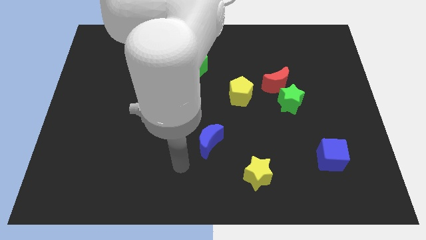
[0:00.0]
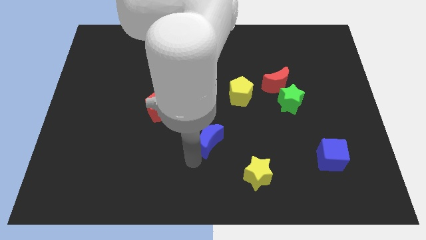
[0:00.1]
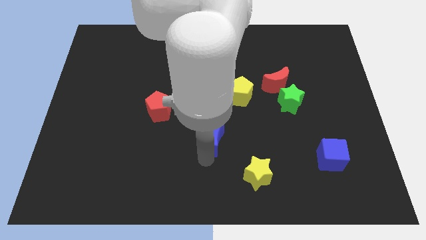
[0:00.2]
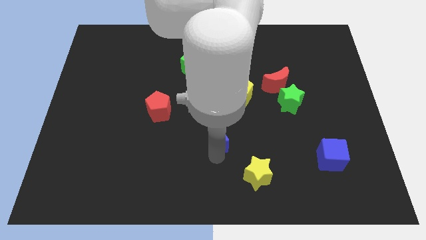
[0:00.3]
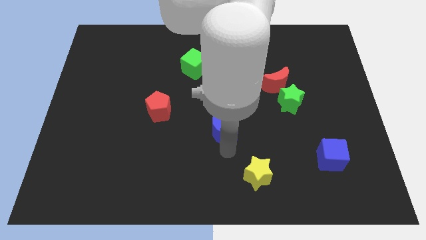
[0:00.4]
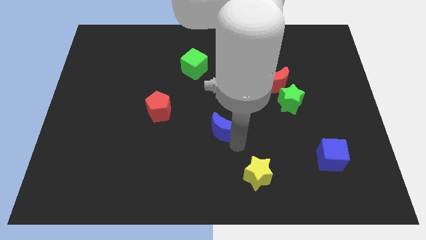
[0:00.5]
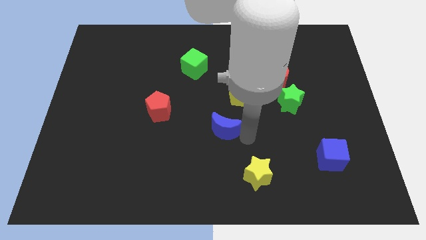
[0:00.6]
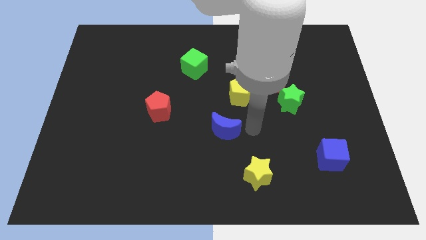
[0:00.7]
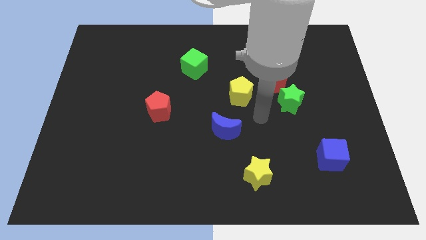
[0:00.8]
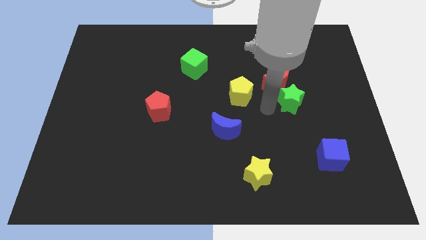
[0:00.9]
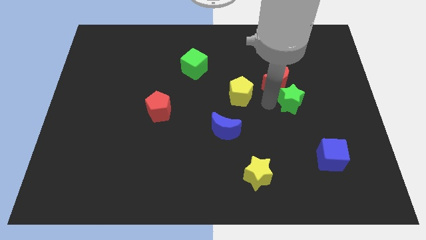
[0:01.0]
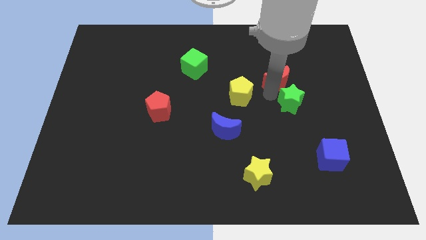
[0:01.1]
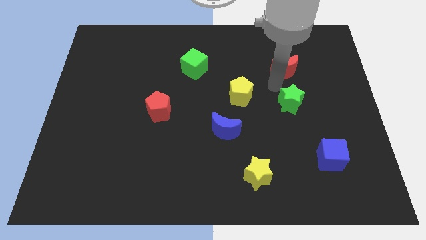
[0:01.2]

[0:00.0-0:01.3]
separate the green star from the red moon

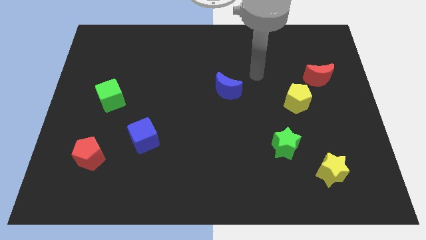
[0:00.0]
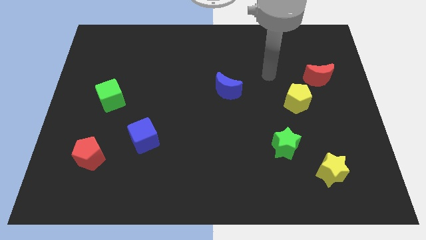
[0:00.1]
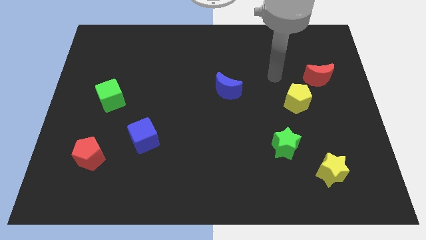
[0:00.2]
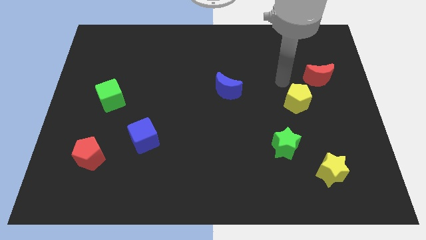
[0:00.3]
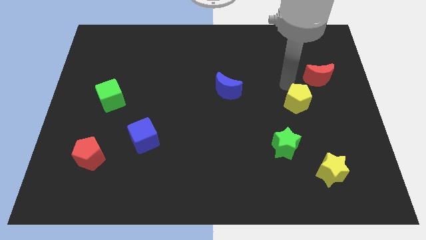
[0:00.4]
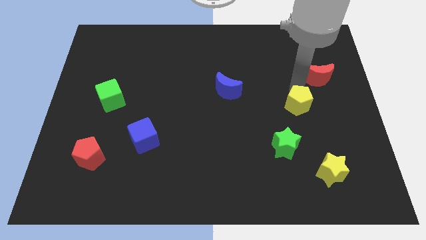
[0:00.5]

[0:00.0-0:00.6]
separate the red moon from the yellow pentagon

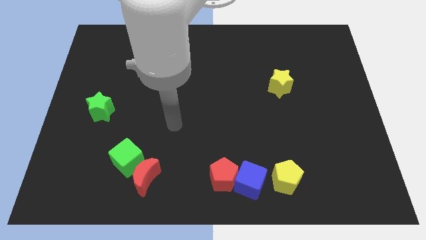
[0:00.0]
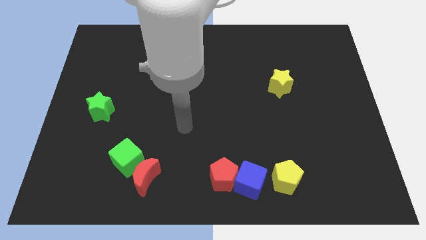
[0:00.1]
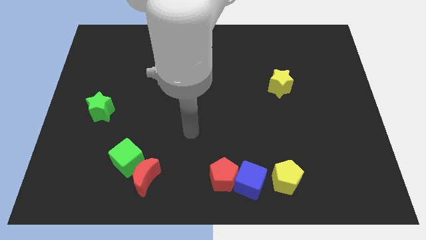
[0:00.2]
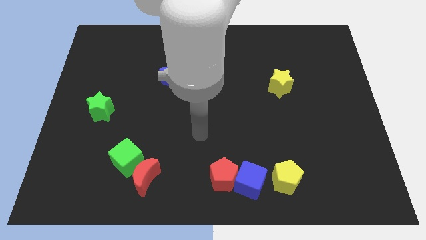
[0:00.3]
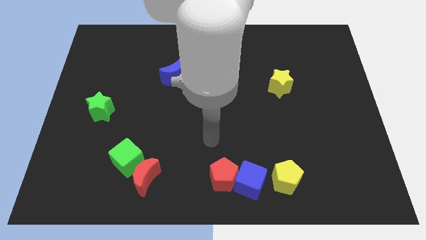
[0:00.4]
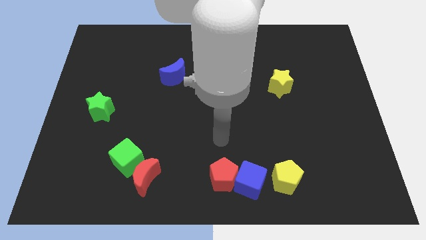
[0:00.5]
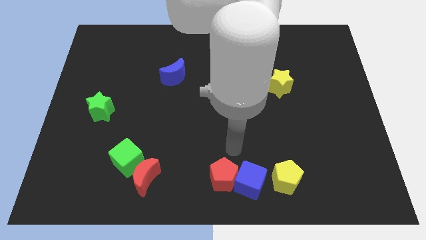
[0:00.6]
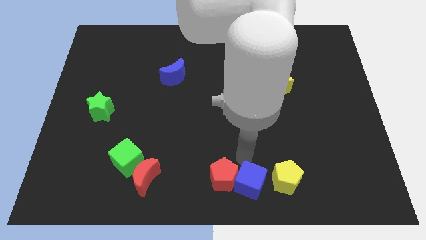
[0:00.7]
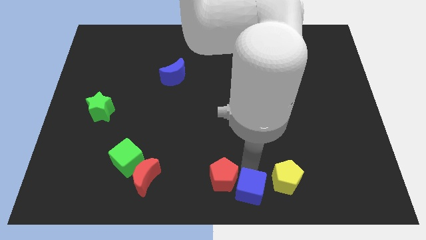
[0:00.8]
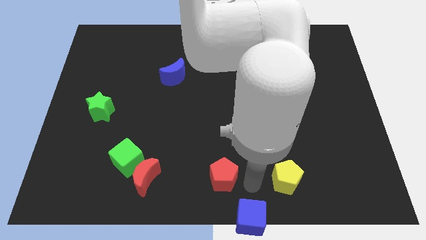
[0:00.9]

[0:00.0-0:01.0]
separate the red pentagon from the blue cube

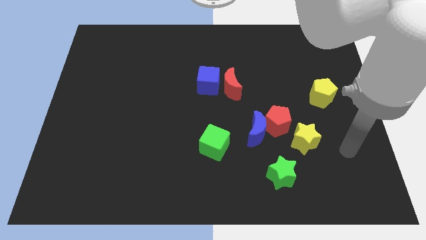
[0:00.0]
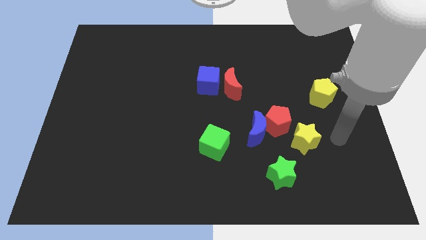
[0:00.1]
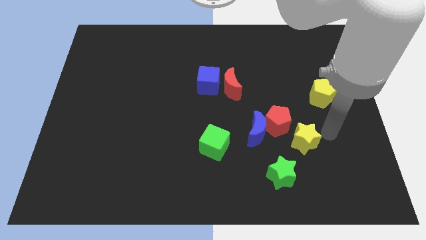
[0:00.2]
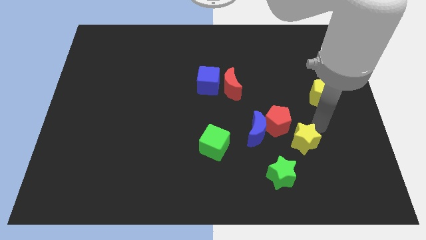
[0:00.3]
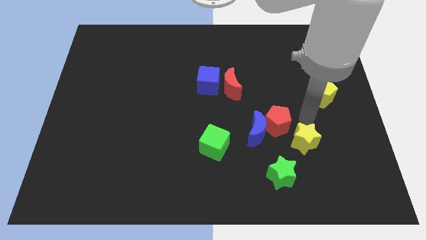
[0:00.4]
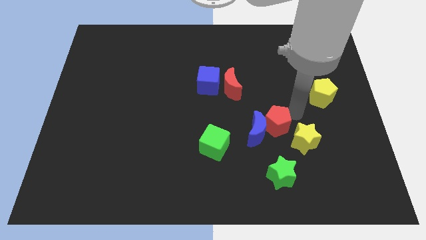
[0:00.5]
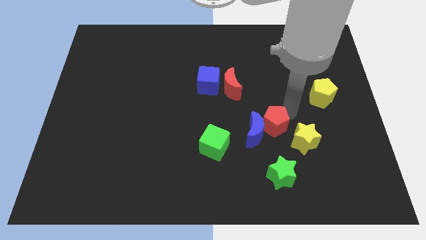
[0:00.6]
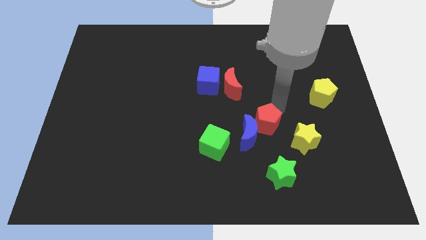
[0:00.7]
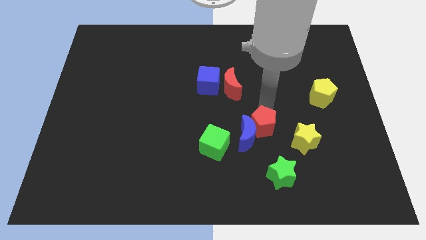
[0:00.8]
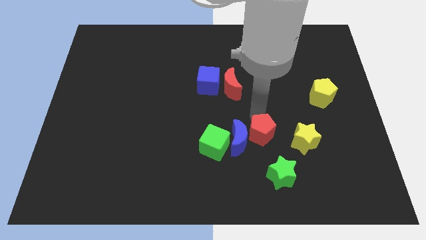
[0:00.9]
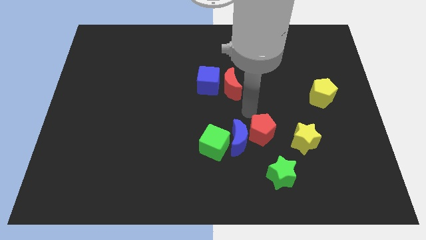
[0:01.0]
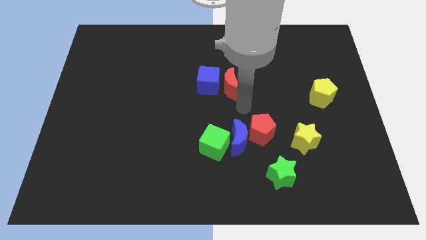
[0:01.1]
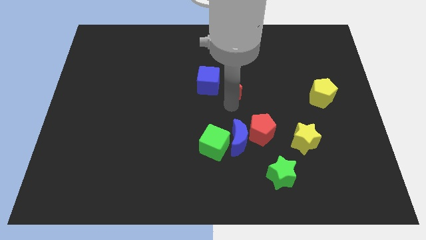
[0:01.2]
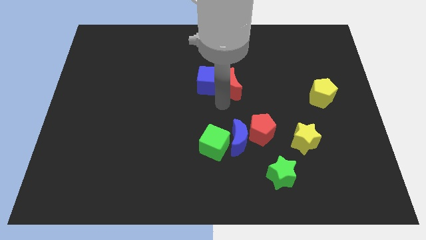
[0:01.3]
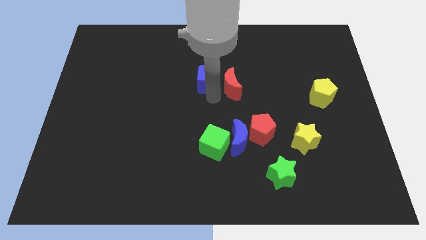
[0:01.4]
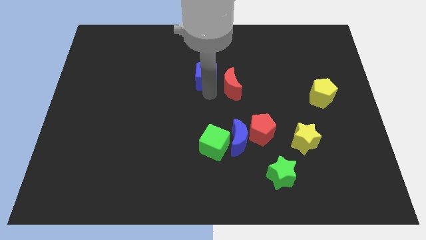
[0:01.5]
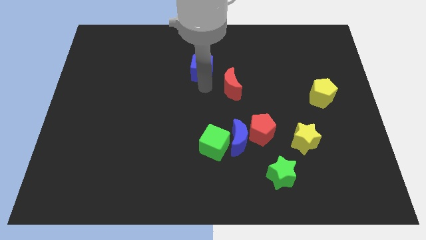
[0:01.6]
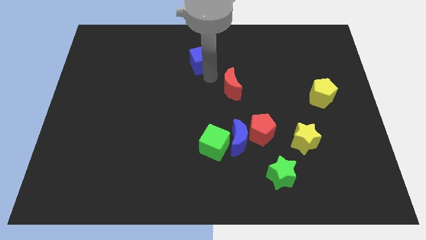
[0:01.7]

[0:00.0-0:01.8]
separate the red moon from the blue cube

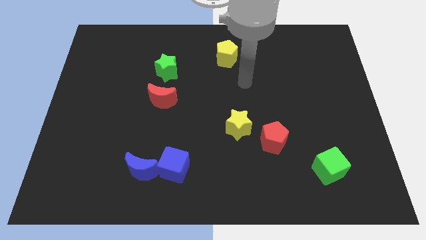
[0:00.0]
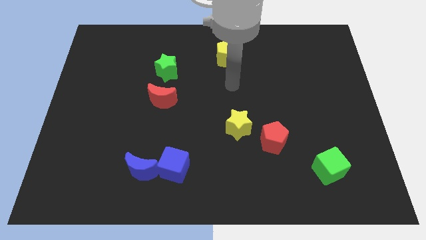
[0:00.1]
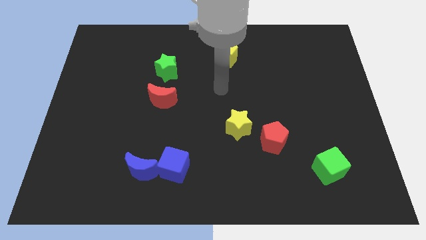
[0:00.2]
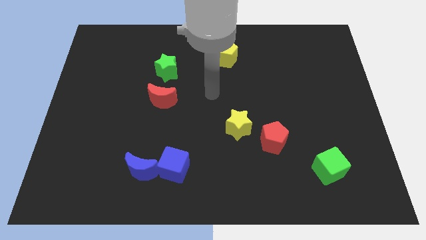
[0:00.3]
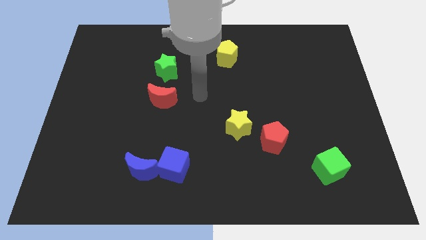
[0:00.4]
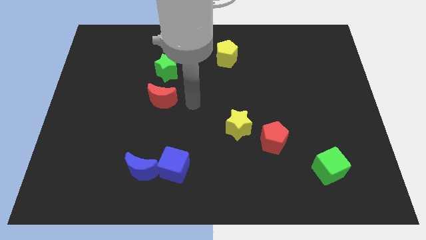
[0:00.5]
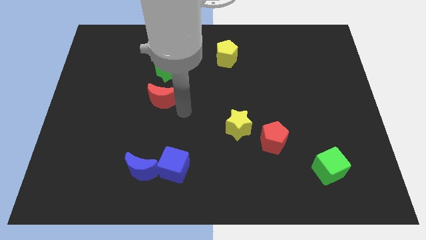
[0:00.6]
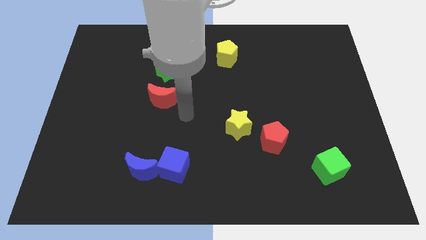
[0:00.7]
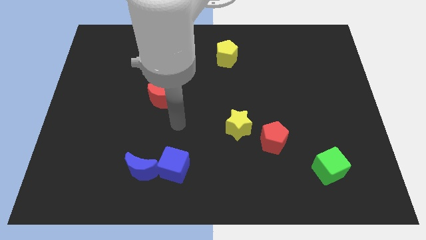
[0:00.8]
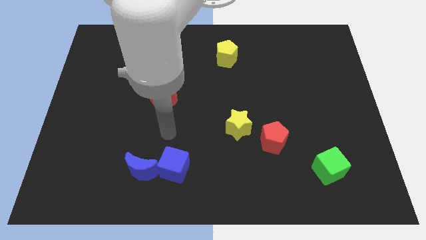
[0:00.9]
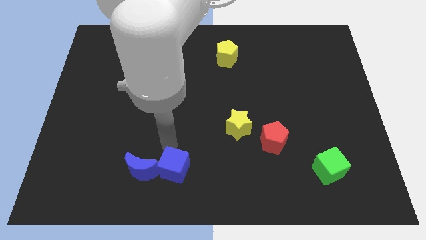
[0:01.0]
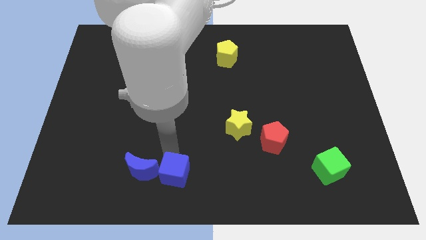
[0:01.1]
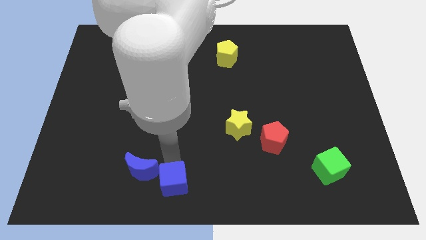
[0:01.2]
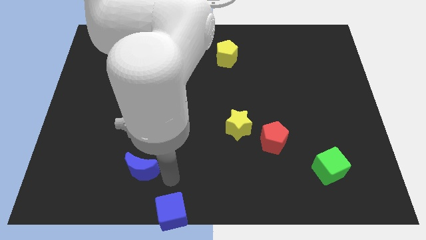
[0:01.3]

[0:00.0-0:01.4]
separate the blue moon from the blue cube

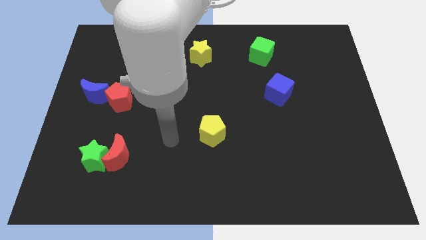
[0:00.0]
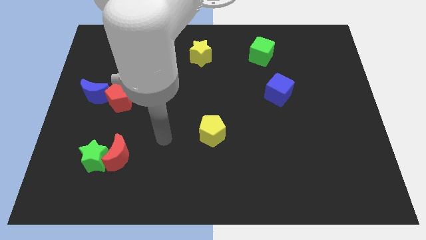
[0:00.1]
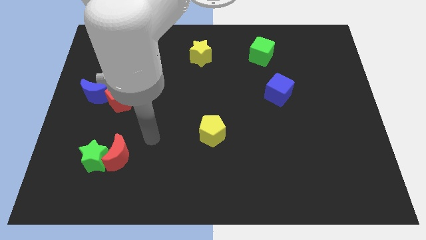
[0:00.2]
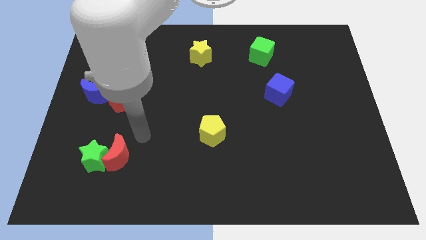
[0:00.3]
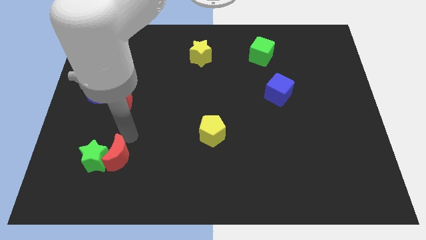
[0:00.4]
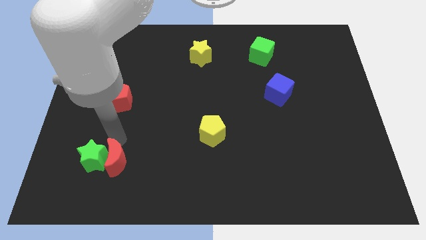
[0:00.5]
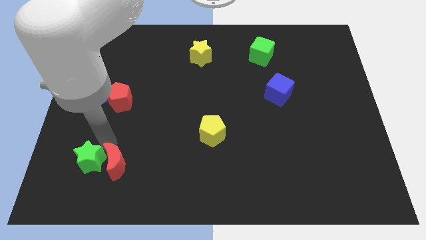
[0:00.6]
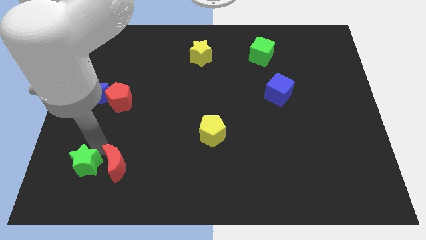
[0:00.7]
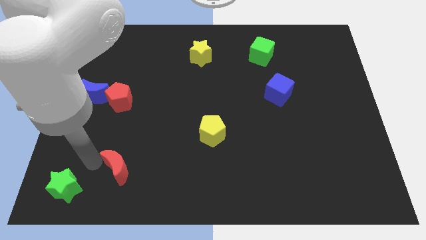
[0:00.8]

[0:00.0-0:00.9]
separate the red moon from the green star

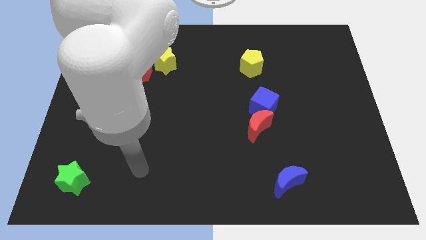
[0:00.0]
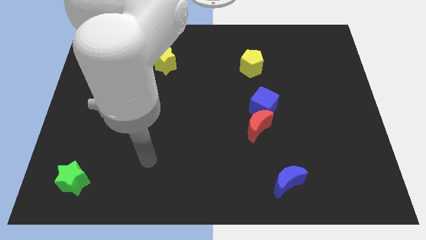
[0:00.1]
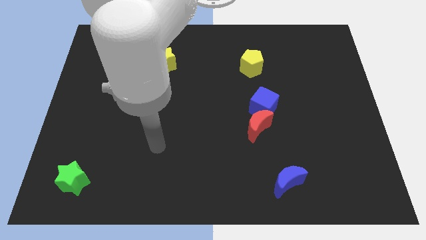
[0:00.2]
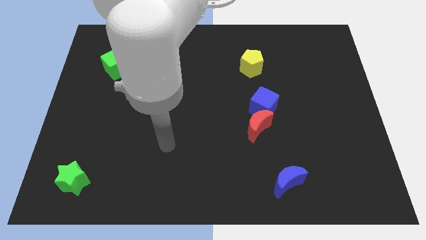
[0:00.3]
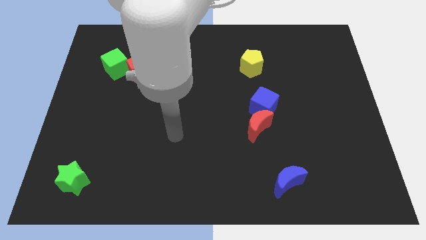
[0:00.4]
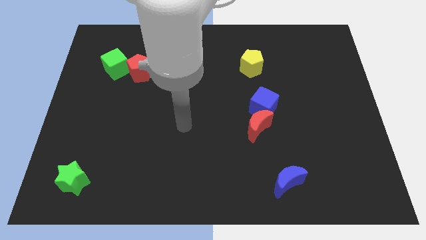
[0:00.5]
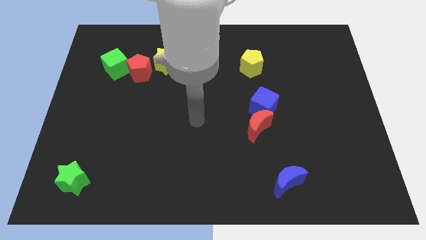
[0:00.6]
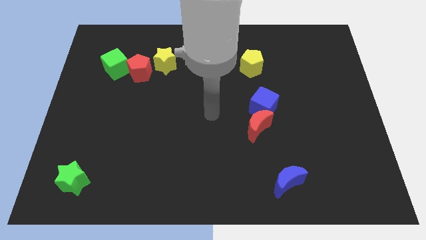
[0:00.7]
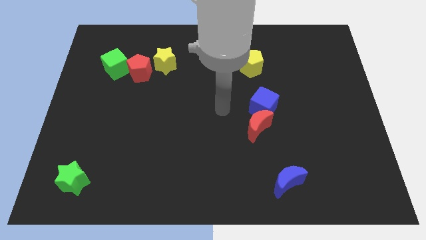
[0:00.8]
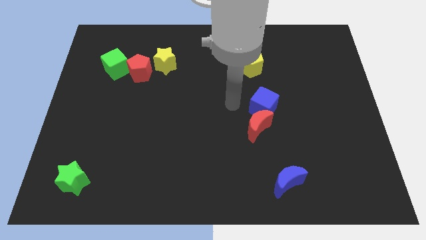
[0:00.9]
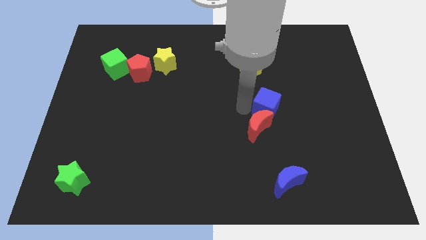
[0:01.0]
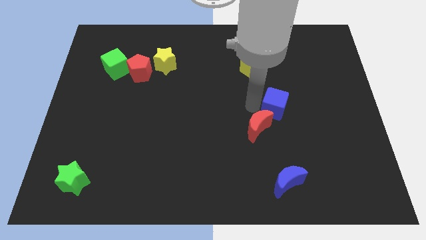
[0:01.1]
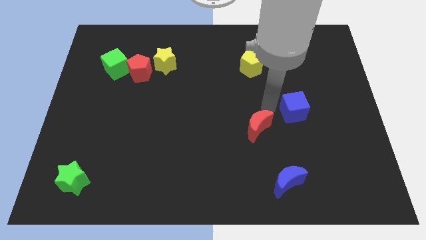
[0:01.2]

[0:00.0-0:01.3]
move the red moon away from the blue cube

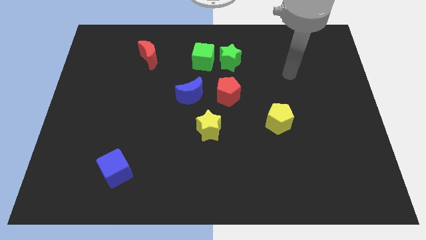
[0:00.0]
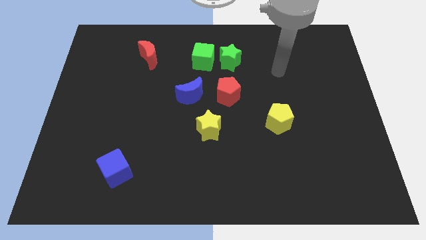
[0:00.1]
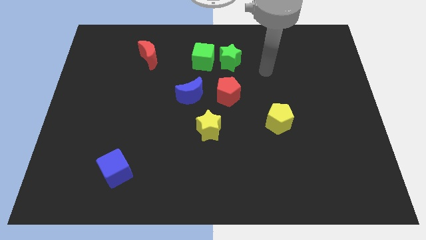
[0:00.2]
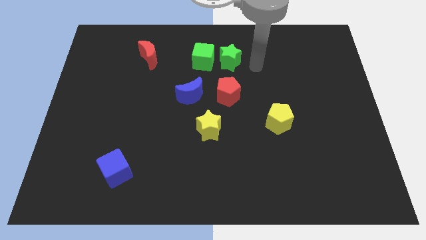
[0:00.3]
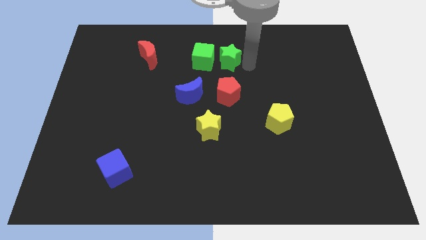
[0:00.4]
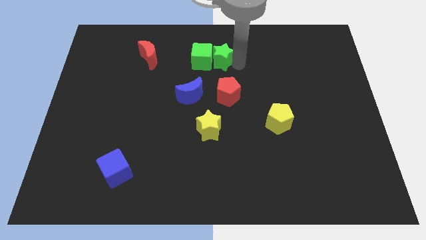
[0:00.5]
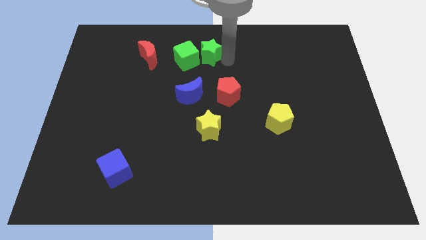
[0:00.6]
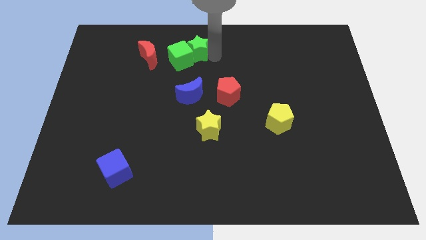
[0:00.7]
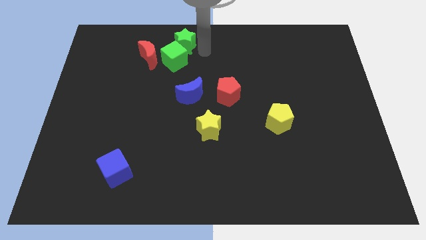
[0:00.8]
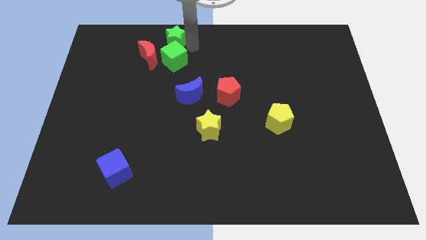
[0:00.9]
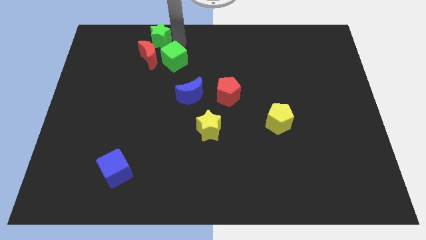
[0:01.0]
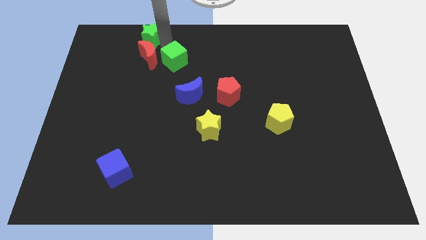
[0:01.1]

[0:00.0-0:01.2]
separate the green cube from the green star
